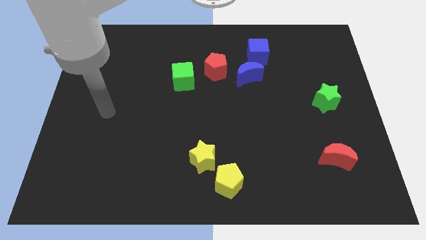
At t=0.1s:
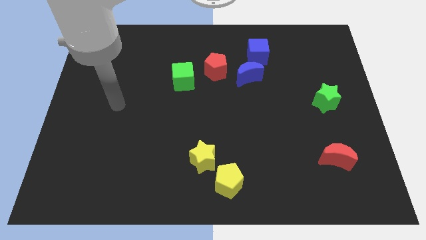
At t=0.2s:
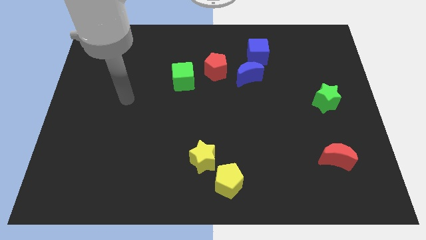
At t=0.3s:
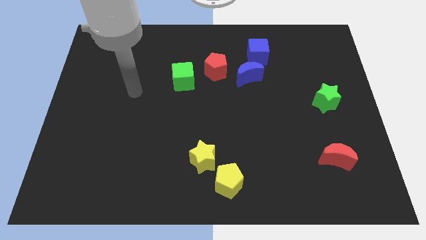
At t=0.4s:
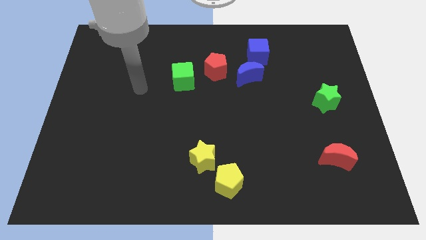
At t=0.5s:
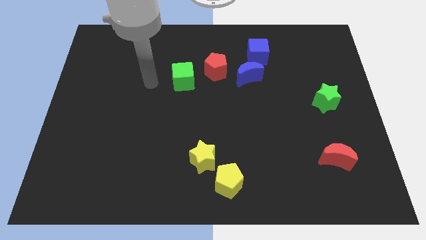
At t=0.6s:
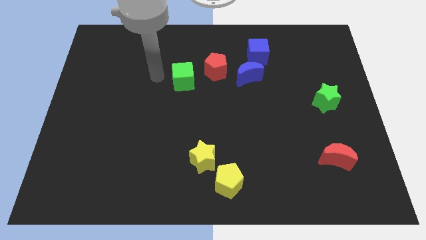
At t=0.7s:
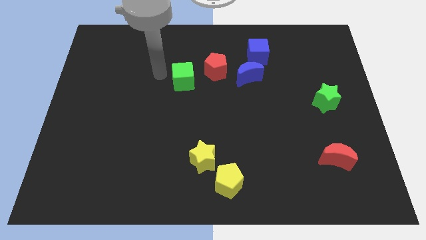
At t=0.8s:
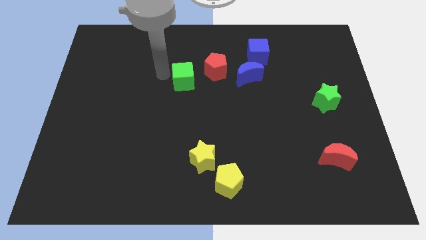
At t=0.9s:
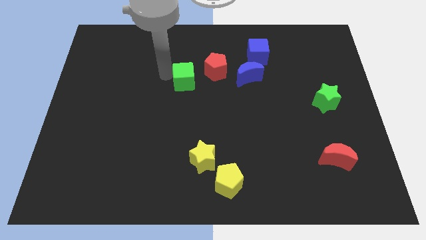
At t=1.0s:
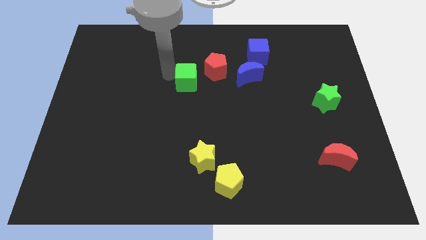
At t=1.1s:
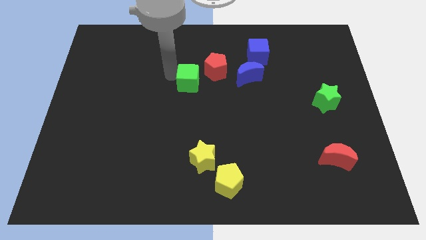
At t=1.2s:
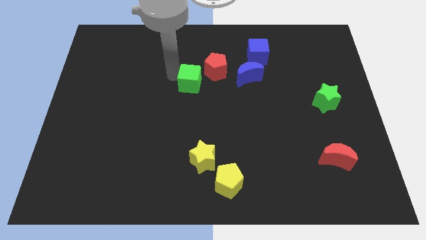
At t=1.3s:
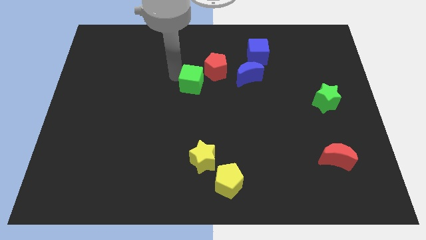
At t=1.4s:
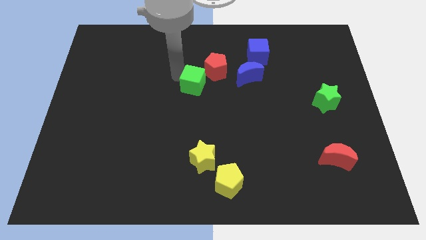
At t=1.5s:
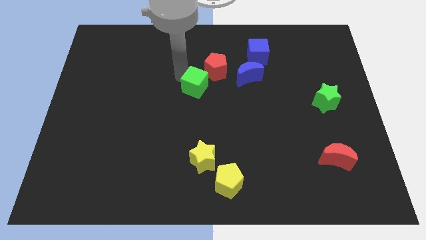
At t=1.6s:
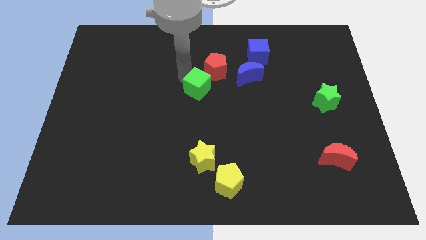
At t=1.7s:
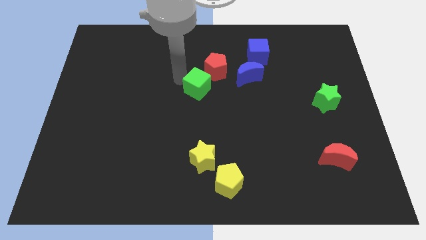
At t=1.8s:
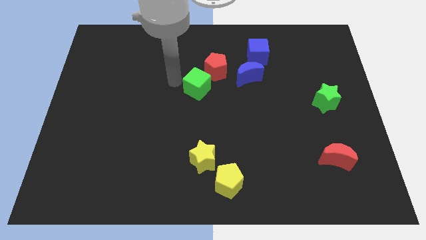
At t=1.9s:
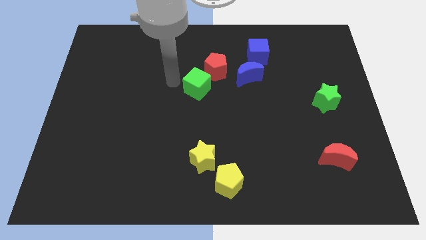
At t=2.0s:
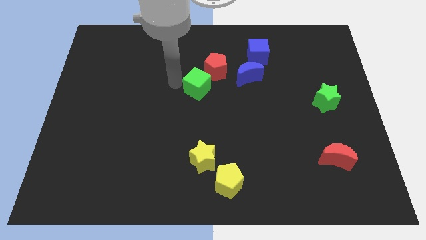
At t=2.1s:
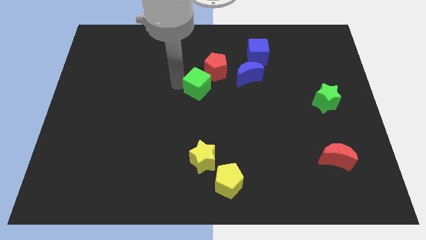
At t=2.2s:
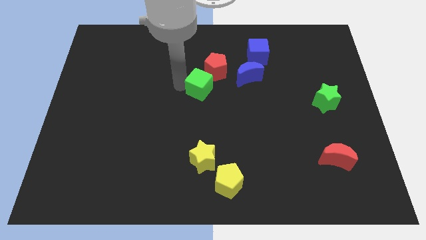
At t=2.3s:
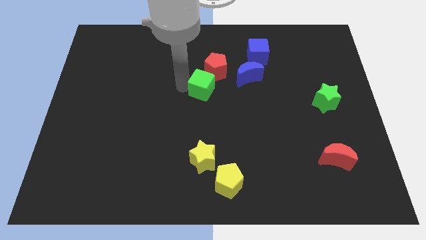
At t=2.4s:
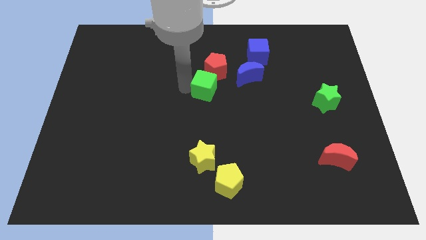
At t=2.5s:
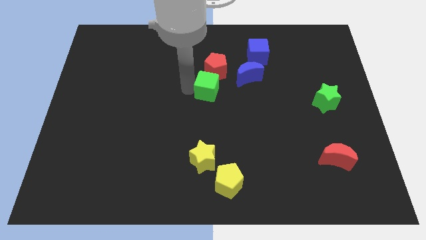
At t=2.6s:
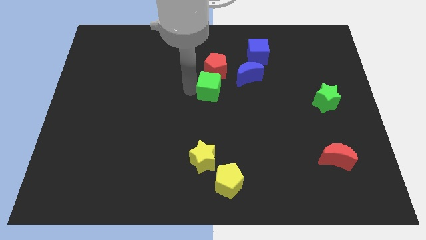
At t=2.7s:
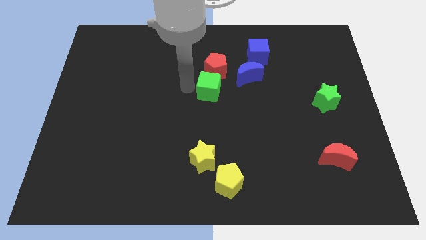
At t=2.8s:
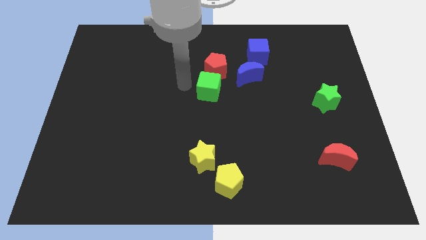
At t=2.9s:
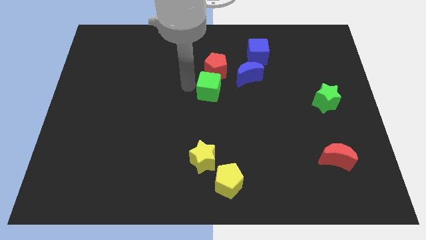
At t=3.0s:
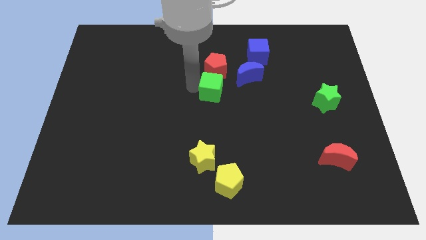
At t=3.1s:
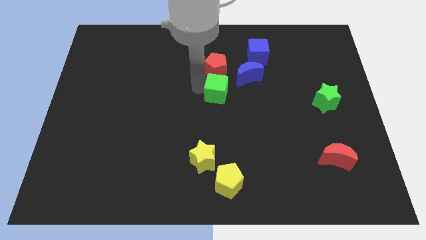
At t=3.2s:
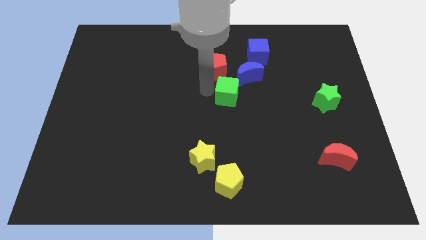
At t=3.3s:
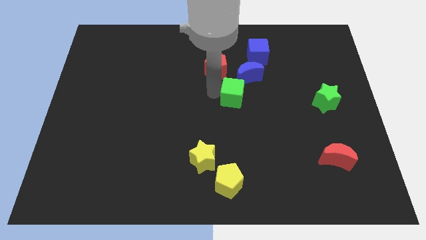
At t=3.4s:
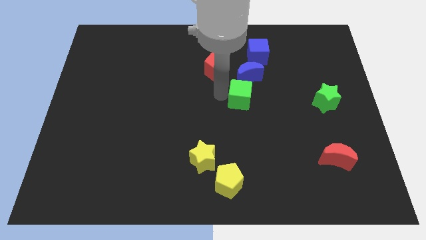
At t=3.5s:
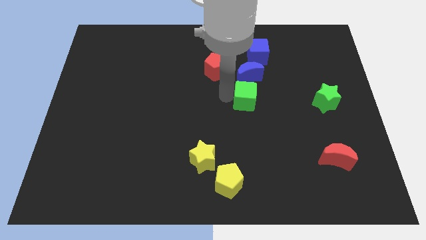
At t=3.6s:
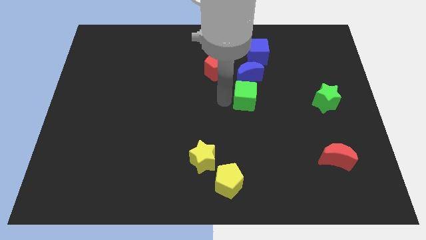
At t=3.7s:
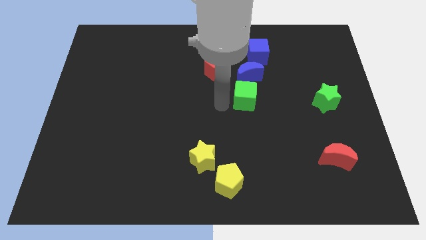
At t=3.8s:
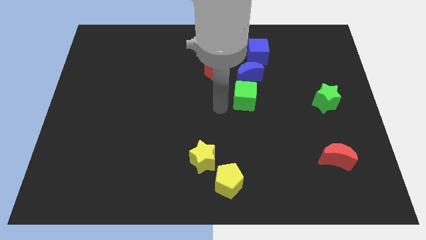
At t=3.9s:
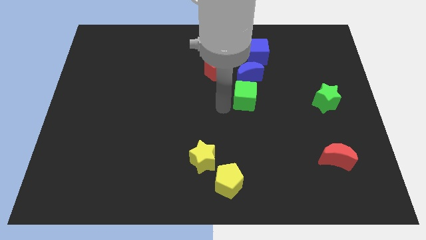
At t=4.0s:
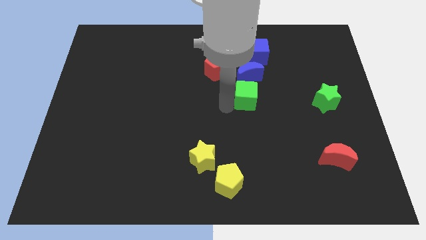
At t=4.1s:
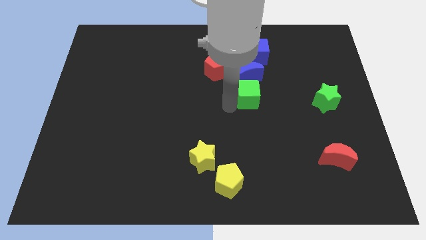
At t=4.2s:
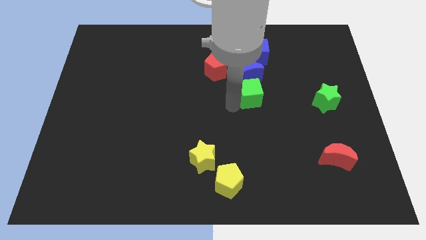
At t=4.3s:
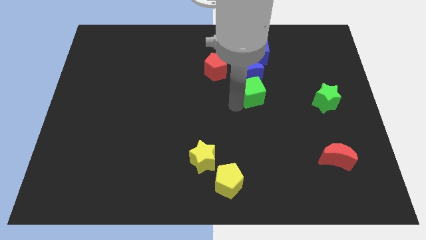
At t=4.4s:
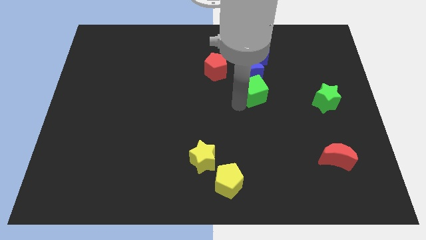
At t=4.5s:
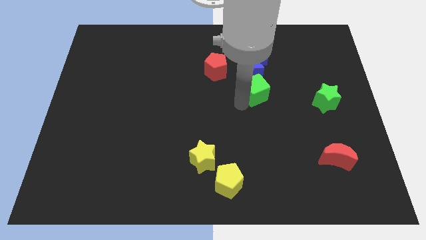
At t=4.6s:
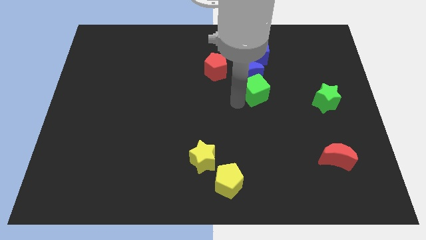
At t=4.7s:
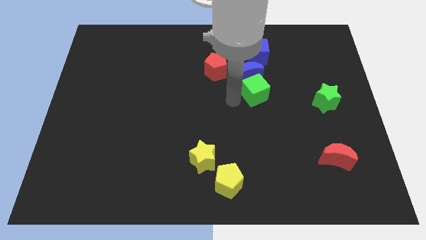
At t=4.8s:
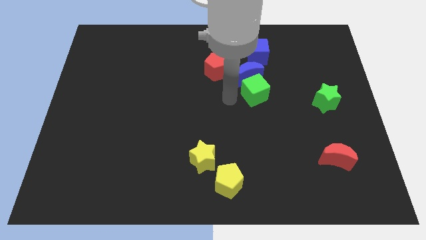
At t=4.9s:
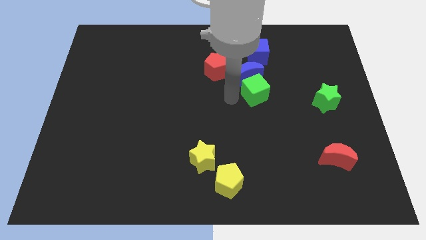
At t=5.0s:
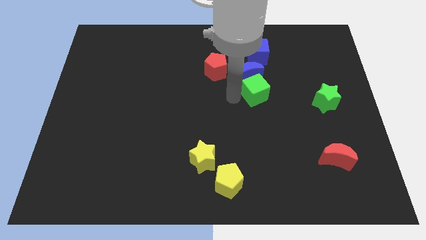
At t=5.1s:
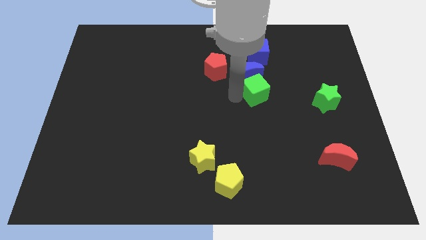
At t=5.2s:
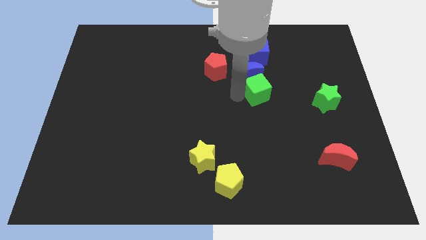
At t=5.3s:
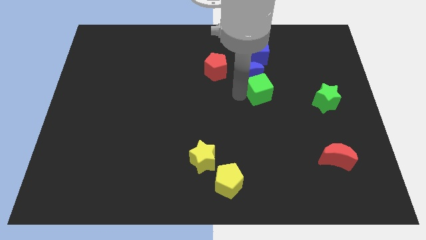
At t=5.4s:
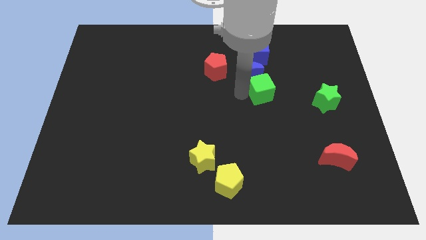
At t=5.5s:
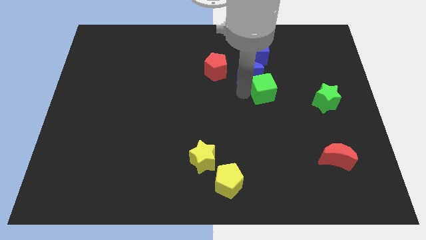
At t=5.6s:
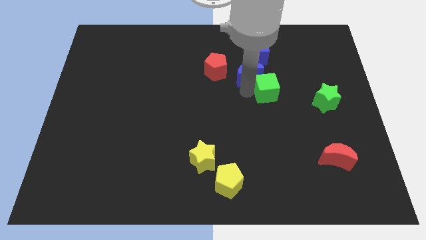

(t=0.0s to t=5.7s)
move the green cube to the right

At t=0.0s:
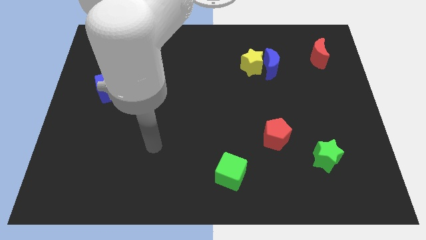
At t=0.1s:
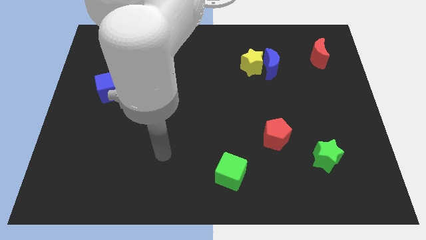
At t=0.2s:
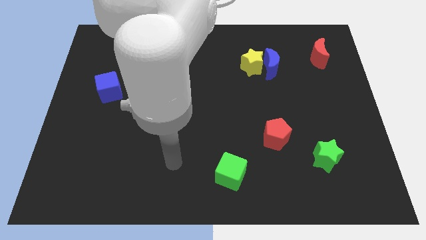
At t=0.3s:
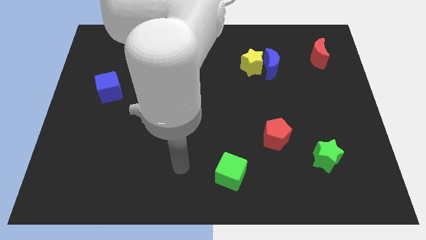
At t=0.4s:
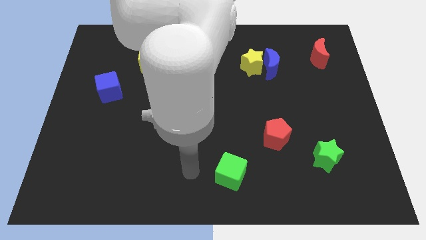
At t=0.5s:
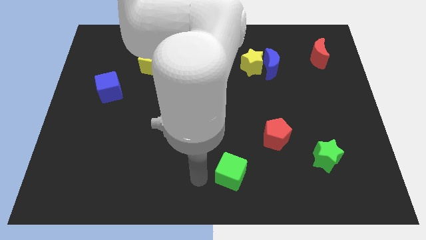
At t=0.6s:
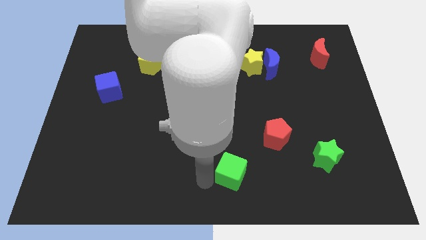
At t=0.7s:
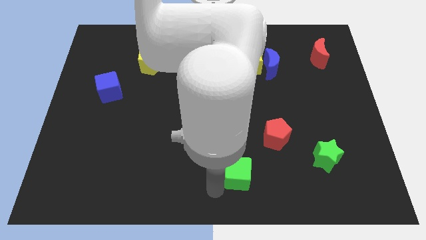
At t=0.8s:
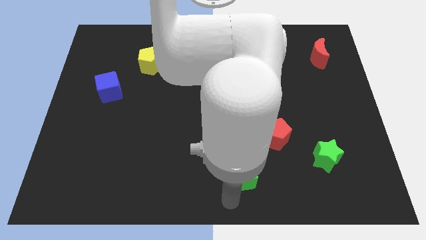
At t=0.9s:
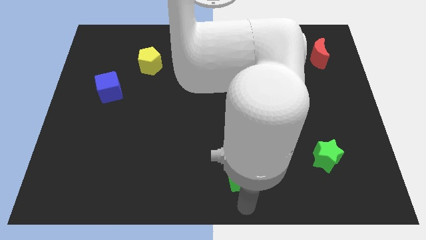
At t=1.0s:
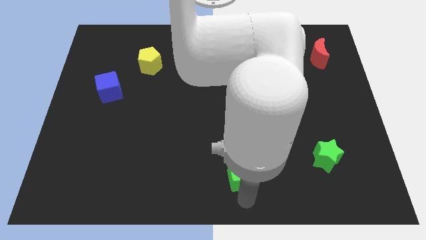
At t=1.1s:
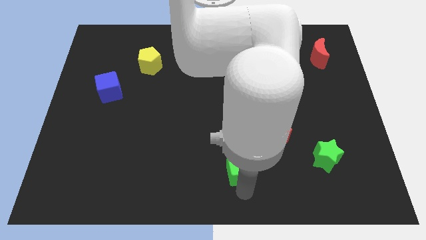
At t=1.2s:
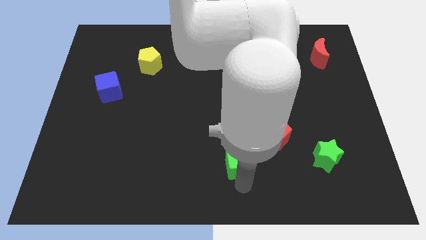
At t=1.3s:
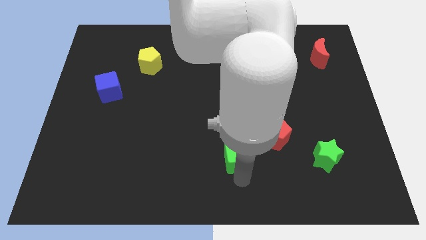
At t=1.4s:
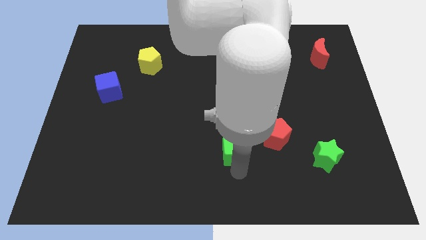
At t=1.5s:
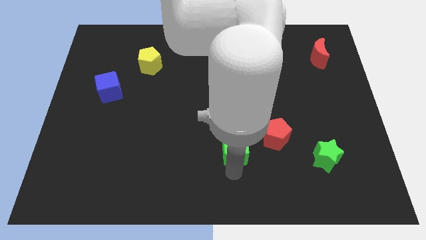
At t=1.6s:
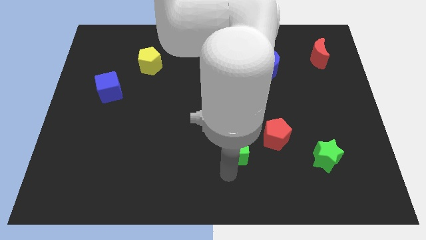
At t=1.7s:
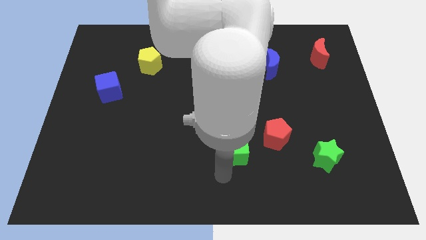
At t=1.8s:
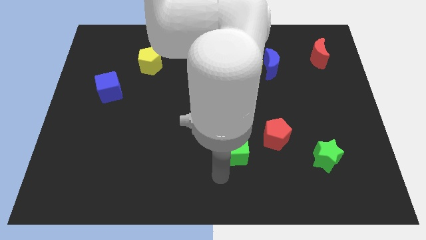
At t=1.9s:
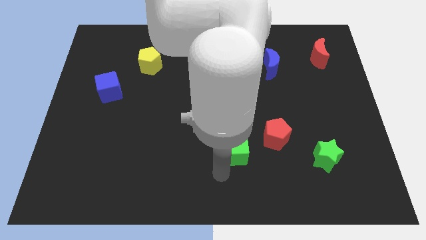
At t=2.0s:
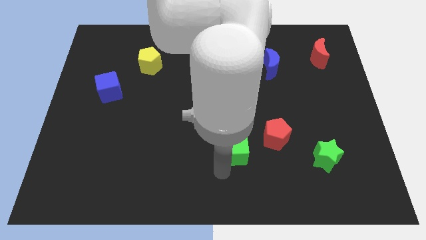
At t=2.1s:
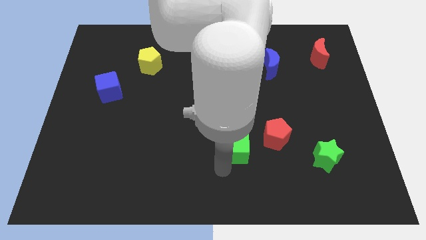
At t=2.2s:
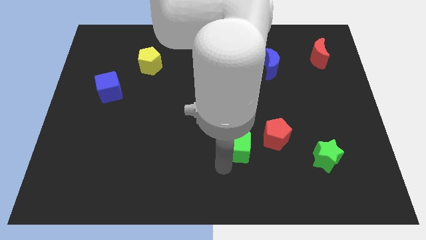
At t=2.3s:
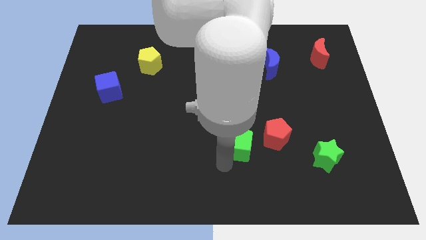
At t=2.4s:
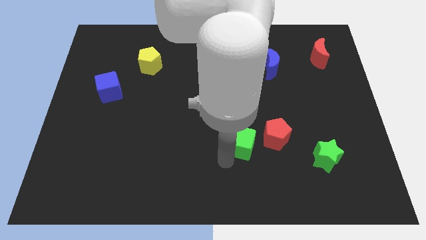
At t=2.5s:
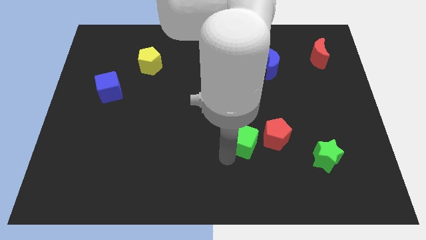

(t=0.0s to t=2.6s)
push the green cube upwards and right a little bit
